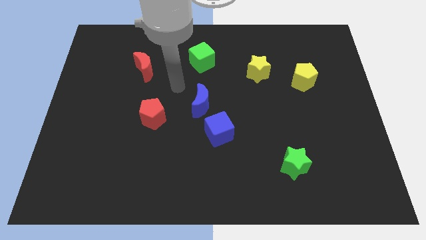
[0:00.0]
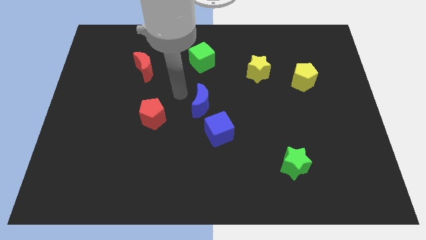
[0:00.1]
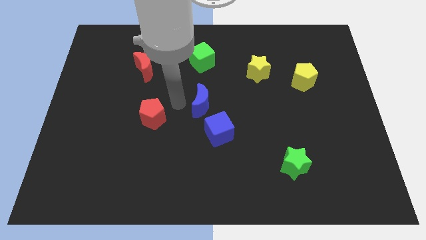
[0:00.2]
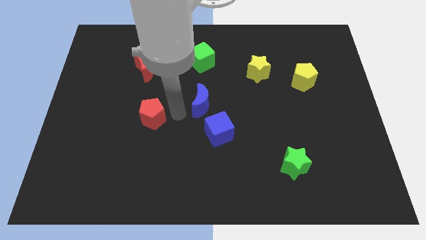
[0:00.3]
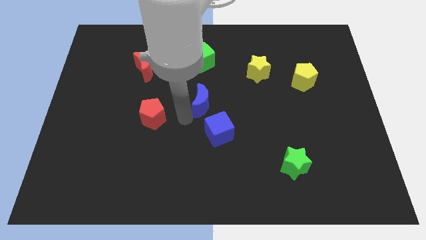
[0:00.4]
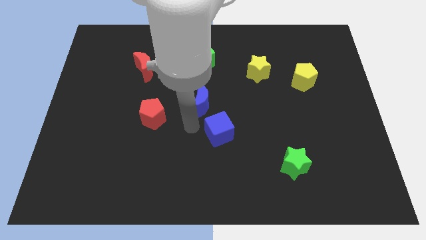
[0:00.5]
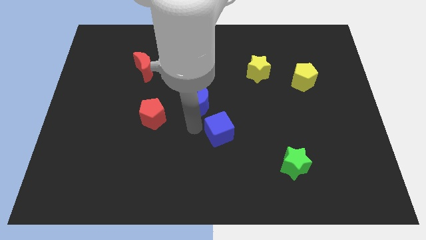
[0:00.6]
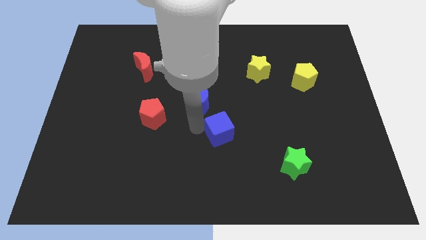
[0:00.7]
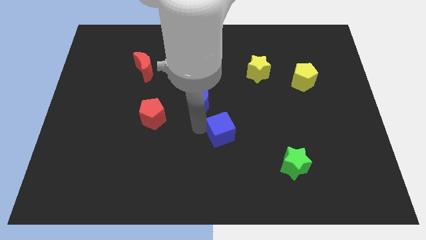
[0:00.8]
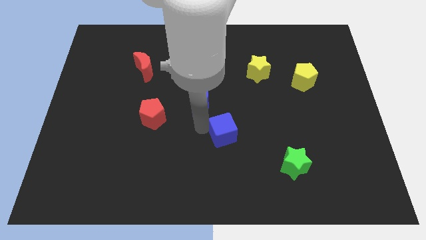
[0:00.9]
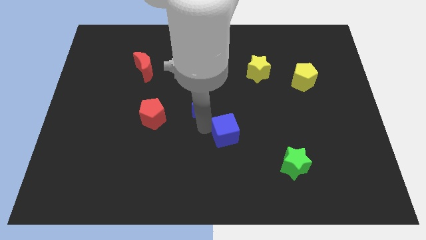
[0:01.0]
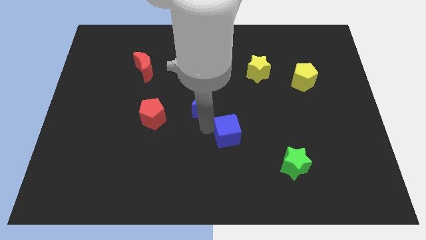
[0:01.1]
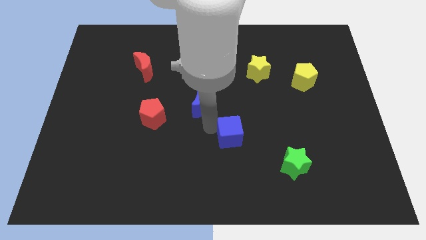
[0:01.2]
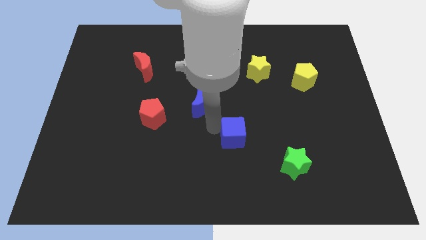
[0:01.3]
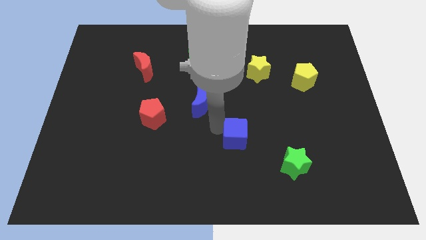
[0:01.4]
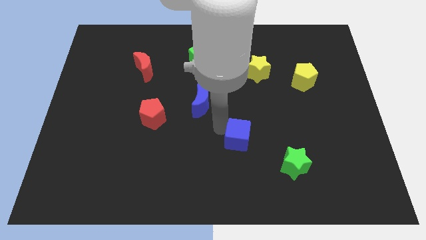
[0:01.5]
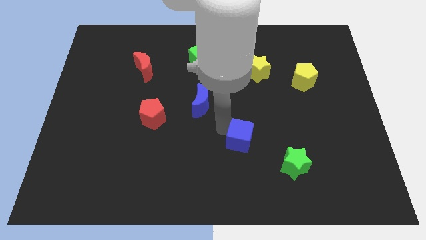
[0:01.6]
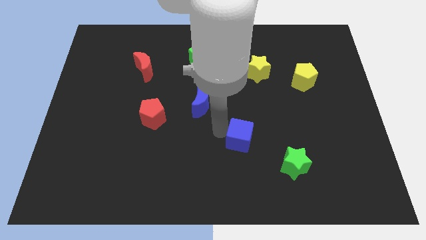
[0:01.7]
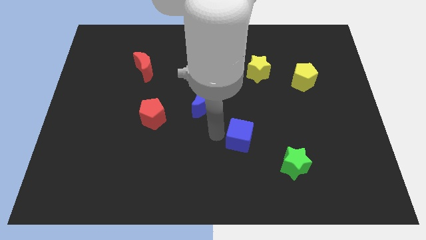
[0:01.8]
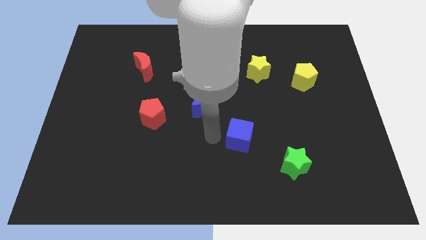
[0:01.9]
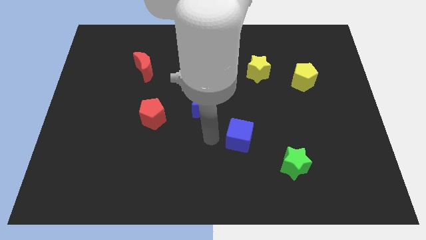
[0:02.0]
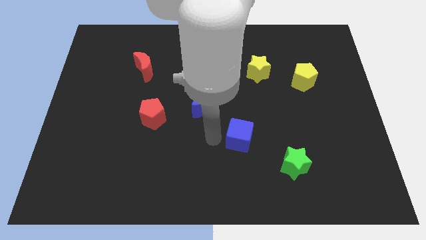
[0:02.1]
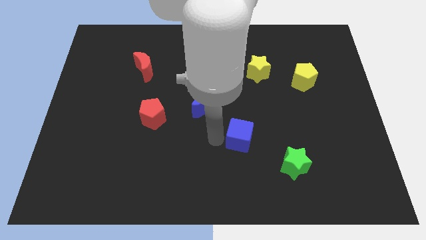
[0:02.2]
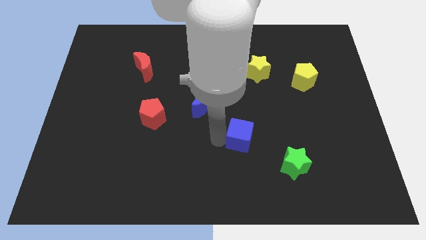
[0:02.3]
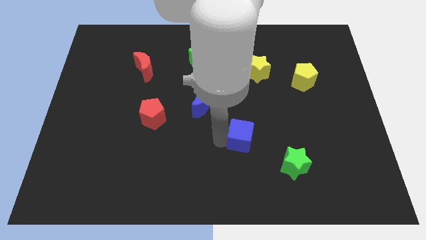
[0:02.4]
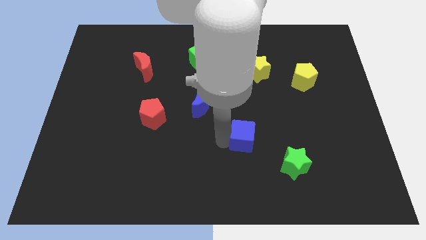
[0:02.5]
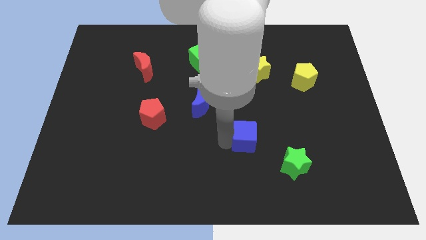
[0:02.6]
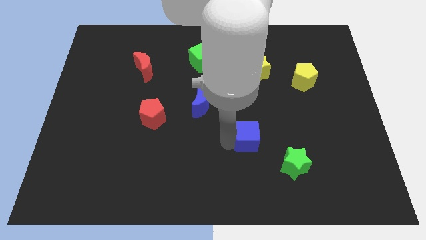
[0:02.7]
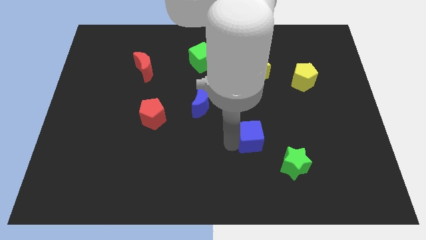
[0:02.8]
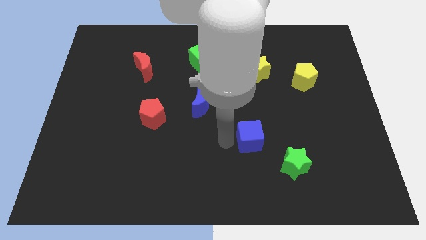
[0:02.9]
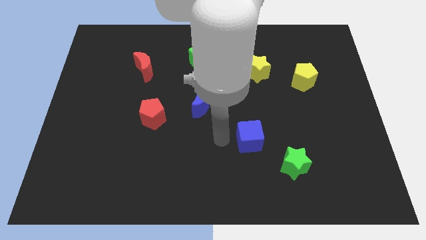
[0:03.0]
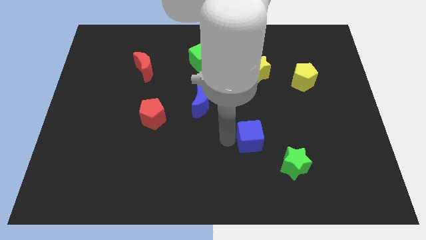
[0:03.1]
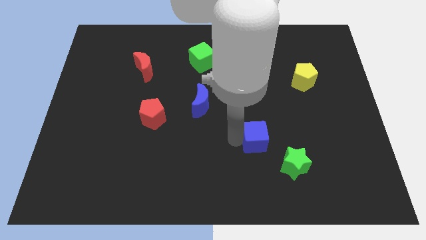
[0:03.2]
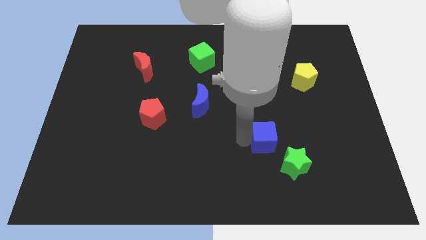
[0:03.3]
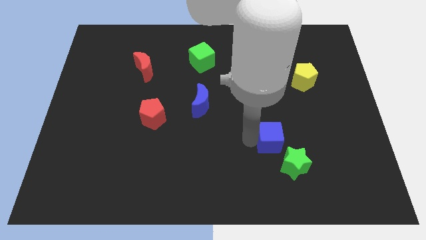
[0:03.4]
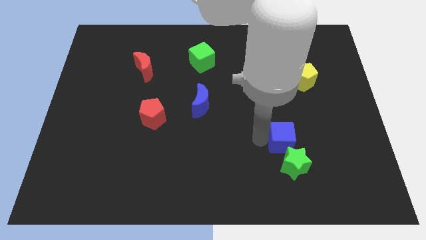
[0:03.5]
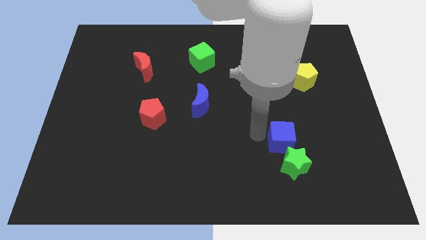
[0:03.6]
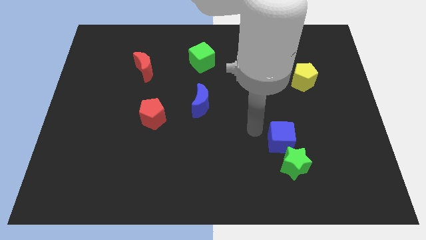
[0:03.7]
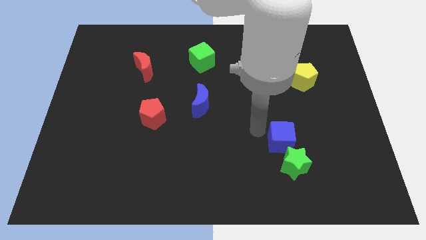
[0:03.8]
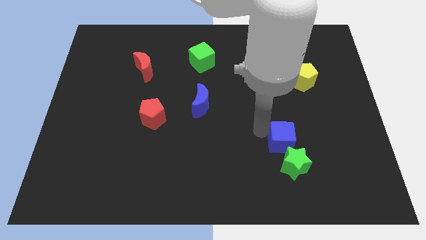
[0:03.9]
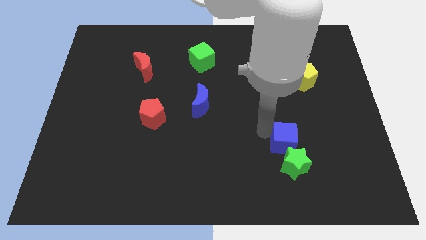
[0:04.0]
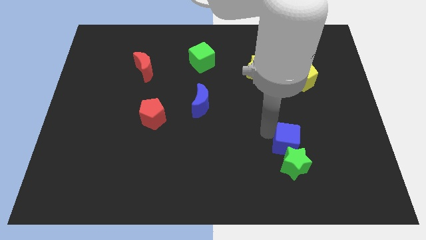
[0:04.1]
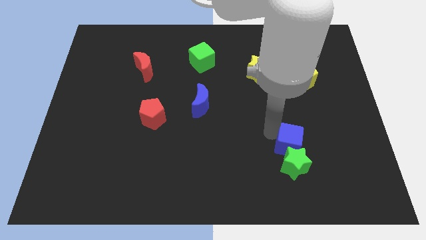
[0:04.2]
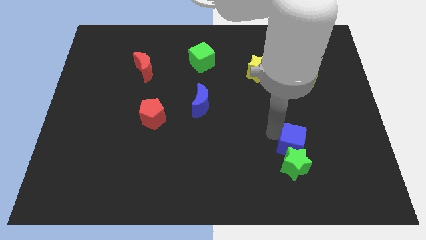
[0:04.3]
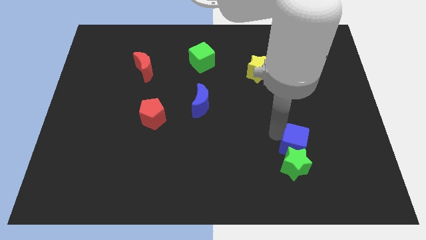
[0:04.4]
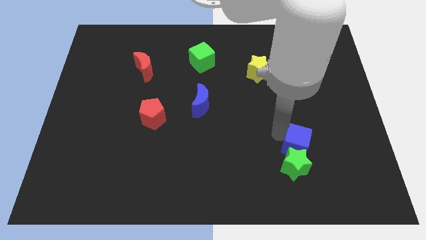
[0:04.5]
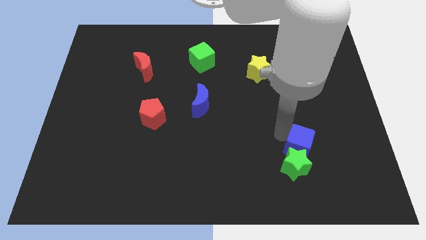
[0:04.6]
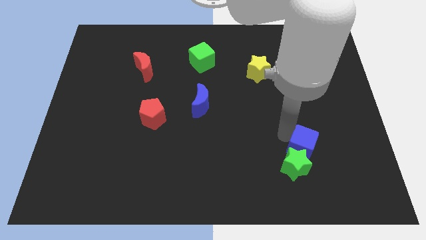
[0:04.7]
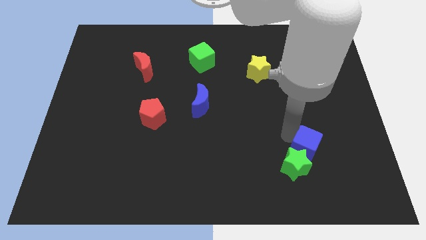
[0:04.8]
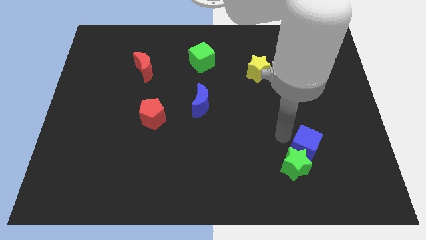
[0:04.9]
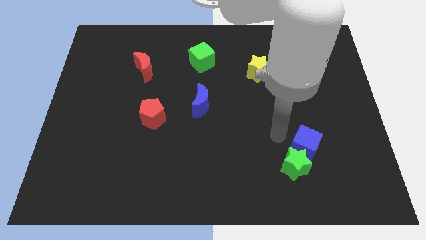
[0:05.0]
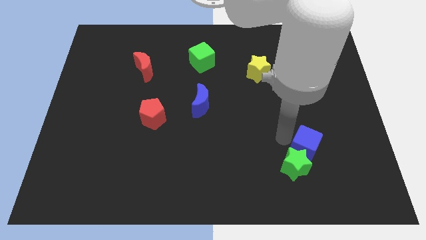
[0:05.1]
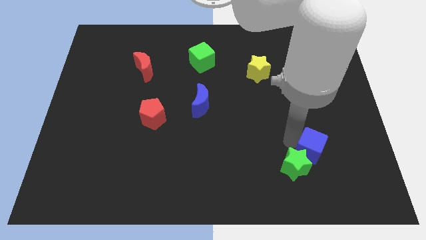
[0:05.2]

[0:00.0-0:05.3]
slide the blue cube right of the green star

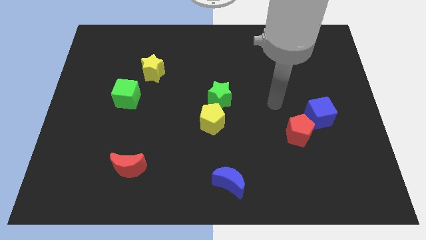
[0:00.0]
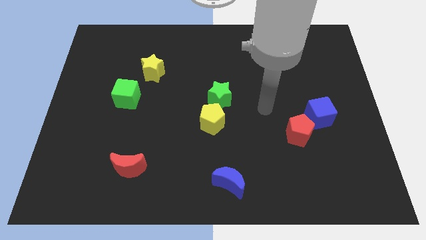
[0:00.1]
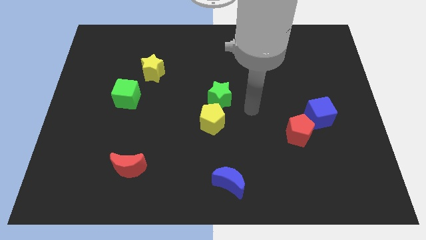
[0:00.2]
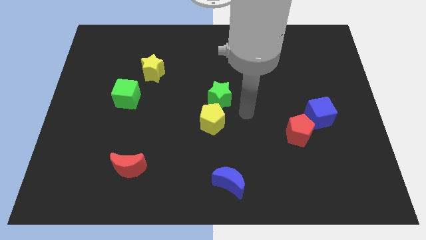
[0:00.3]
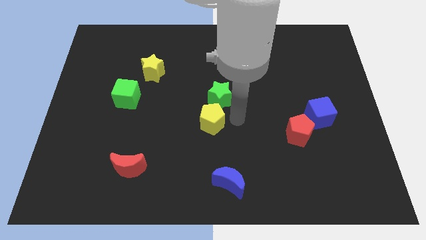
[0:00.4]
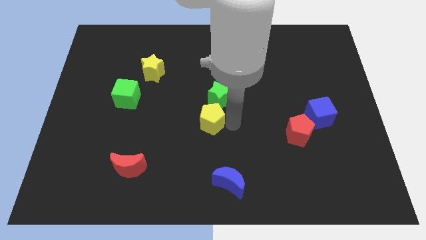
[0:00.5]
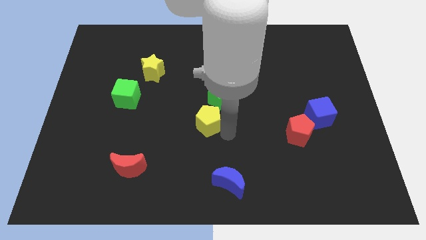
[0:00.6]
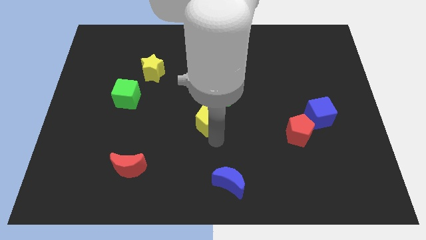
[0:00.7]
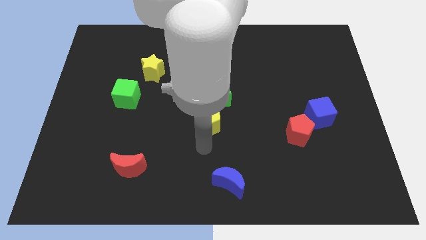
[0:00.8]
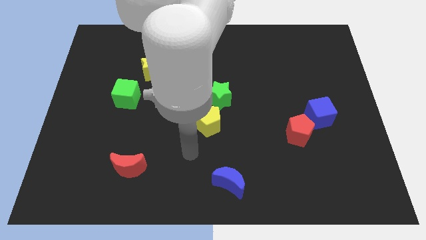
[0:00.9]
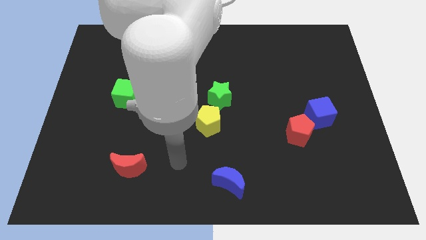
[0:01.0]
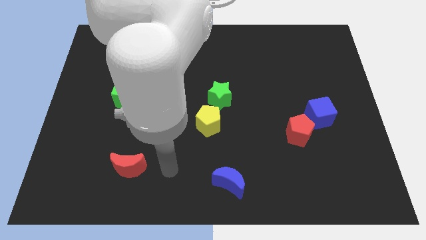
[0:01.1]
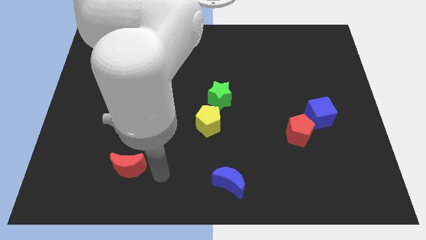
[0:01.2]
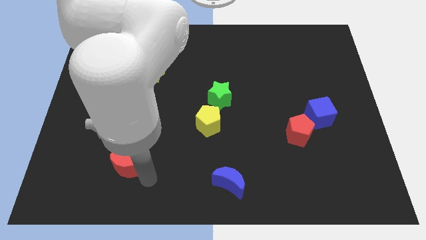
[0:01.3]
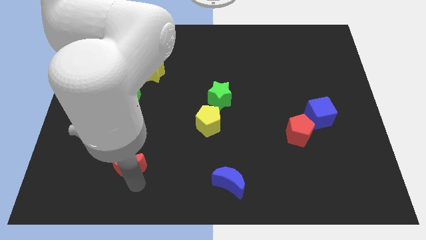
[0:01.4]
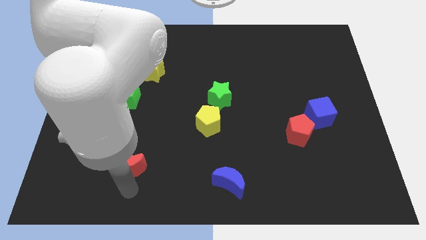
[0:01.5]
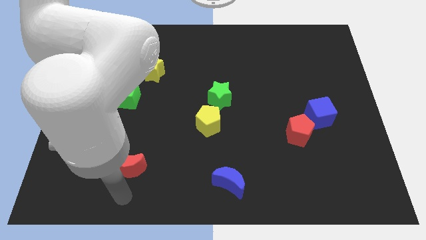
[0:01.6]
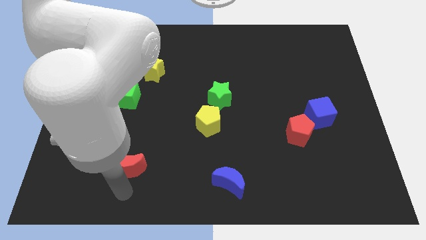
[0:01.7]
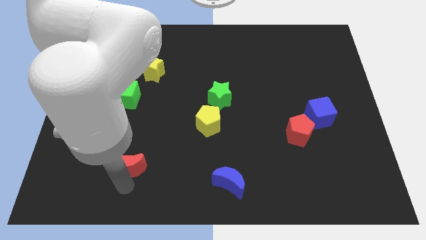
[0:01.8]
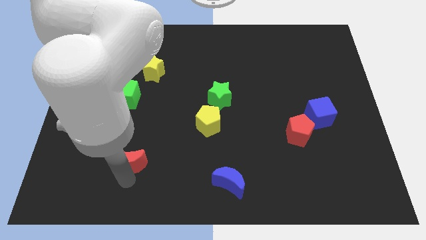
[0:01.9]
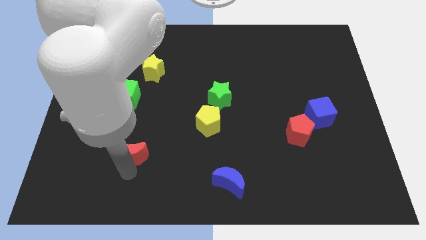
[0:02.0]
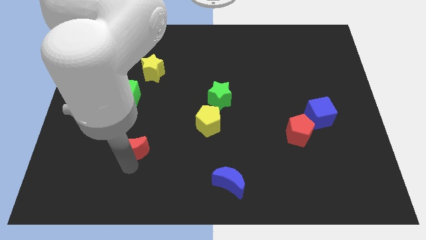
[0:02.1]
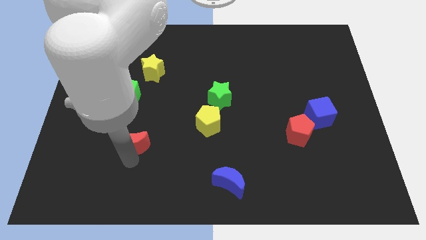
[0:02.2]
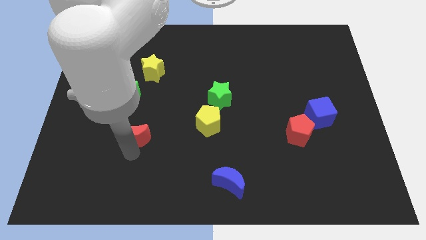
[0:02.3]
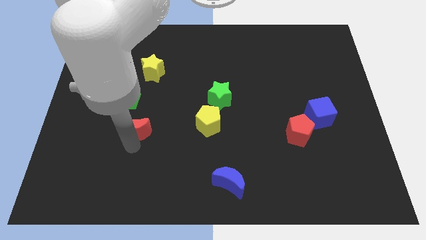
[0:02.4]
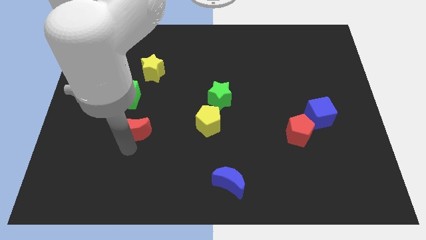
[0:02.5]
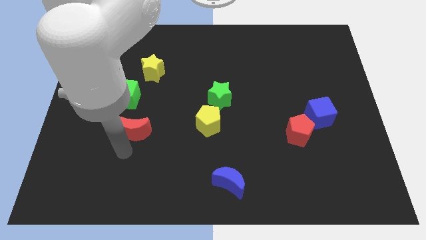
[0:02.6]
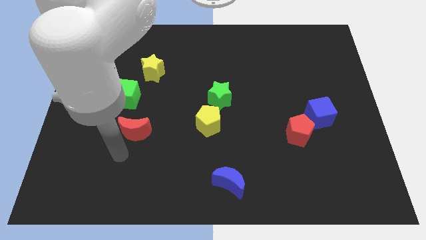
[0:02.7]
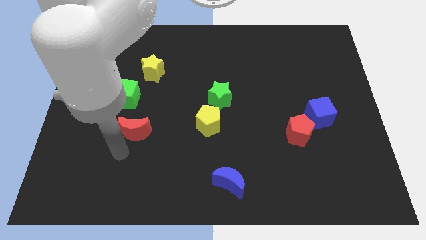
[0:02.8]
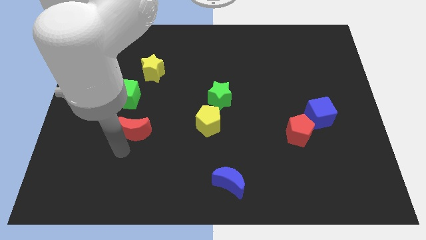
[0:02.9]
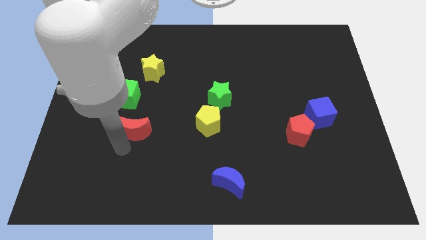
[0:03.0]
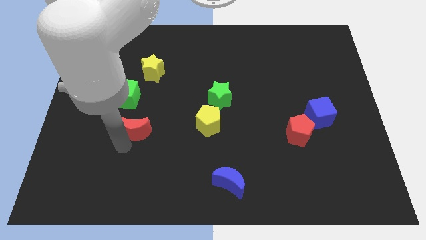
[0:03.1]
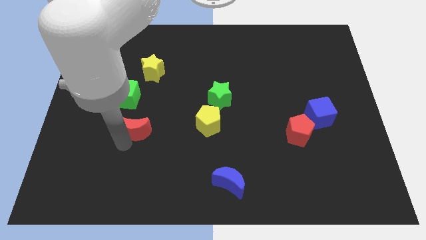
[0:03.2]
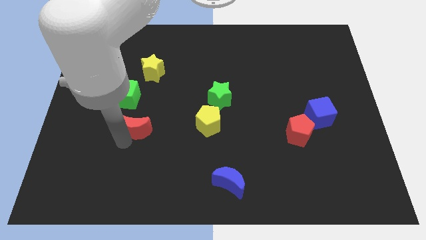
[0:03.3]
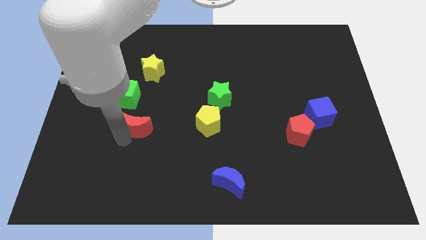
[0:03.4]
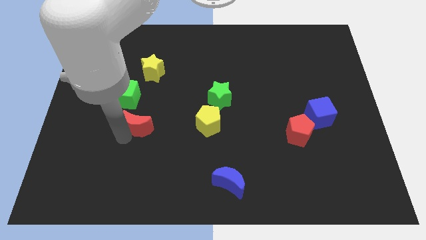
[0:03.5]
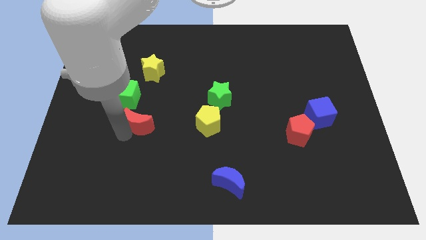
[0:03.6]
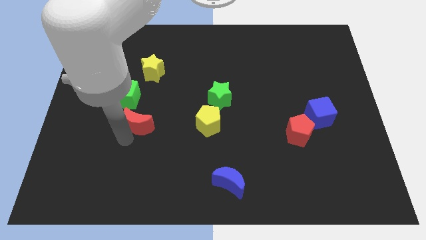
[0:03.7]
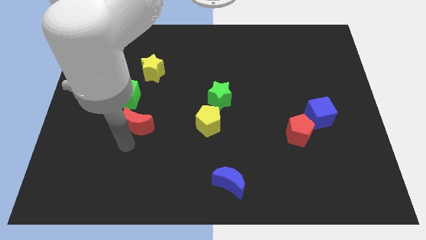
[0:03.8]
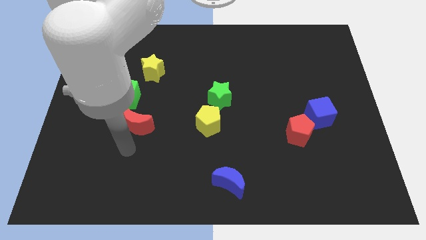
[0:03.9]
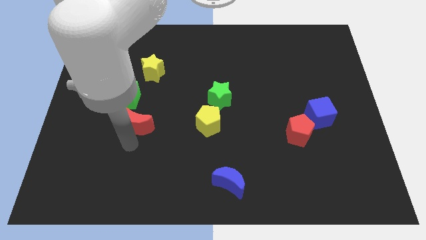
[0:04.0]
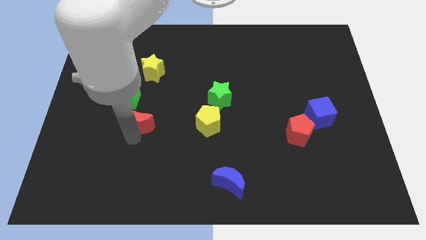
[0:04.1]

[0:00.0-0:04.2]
push the red moon below the yellow star
